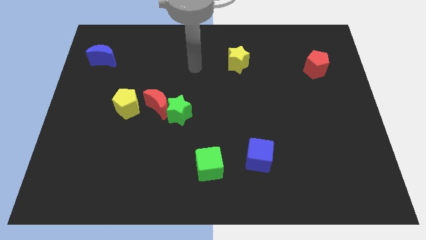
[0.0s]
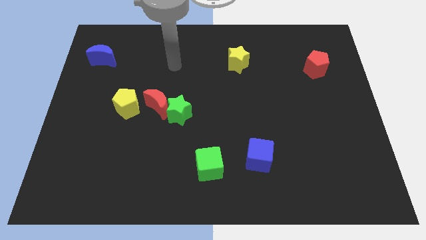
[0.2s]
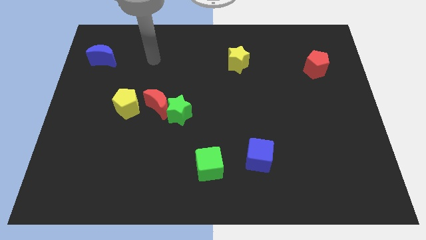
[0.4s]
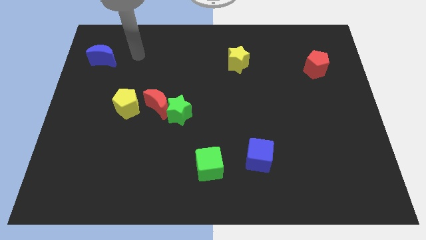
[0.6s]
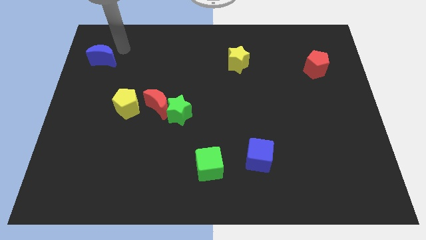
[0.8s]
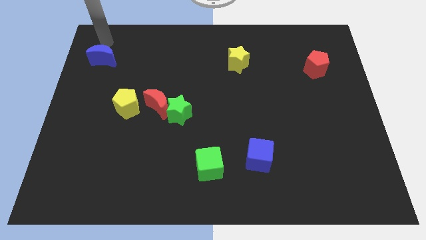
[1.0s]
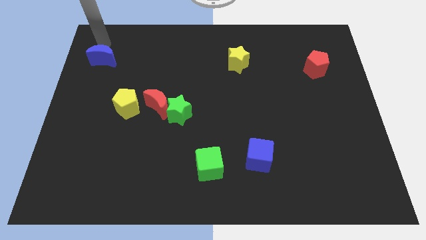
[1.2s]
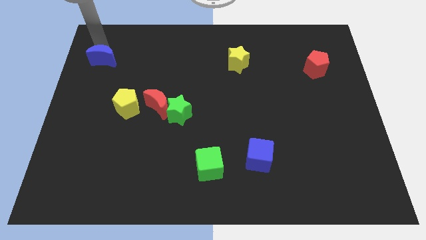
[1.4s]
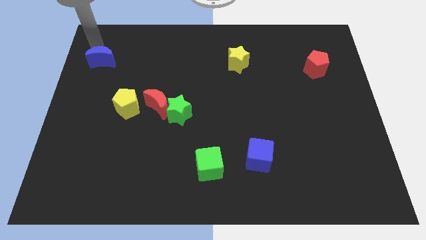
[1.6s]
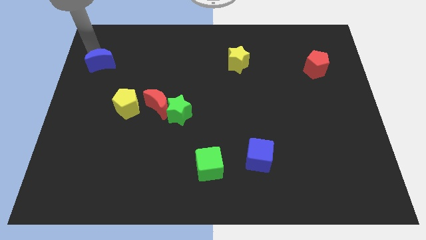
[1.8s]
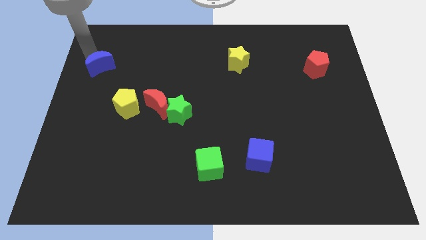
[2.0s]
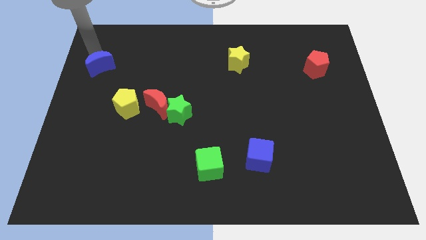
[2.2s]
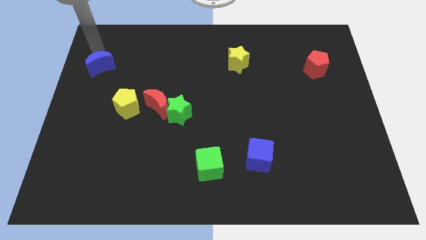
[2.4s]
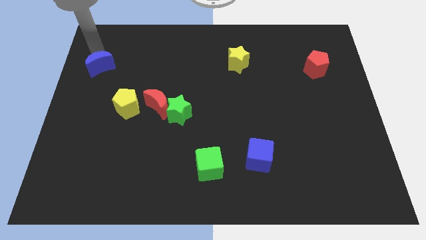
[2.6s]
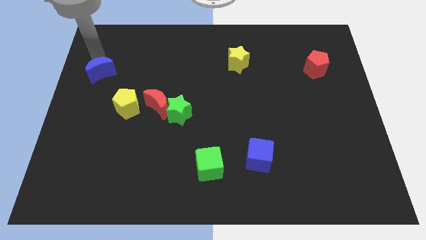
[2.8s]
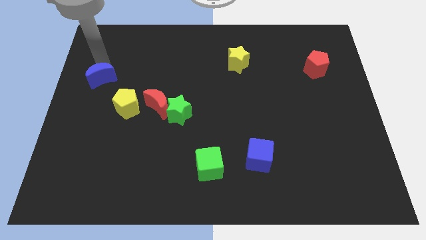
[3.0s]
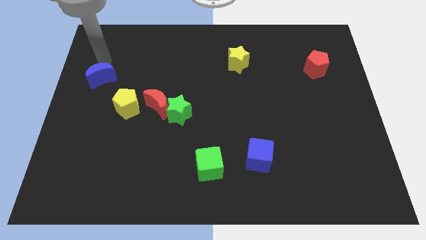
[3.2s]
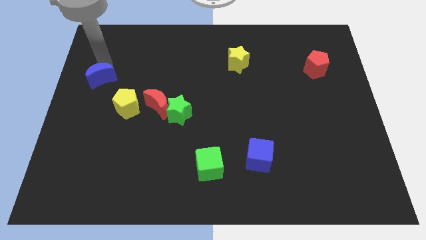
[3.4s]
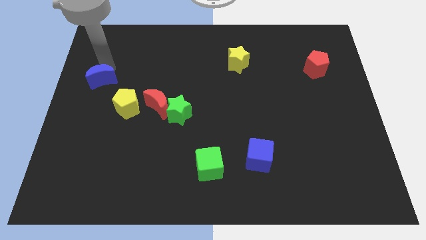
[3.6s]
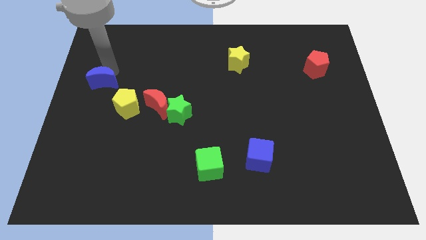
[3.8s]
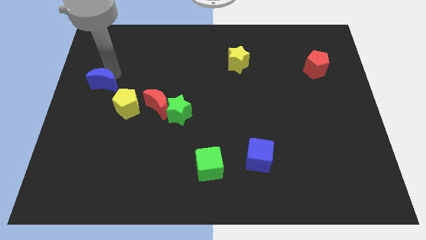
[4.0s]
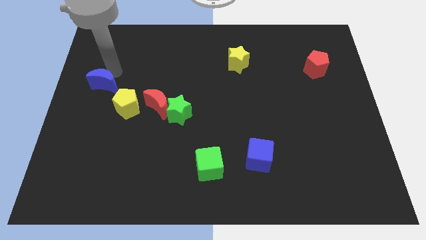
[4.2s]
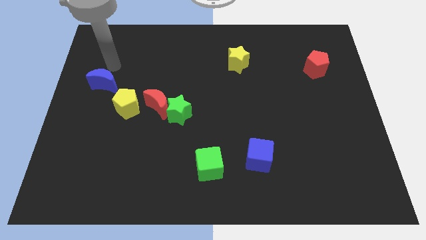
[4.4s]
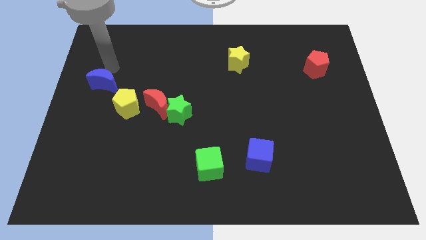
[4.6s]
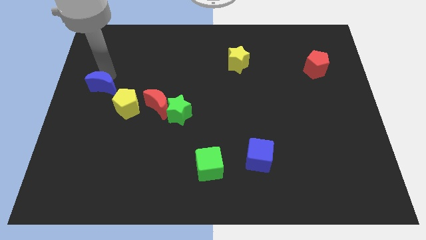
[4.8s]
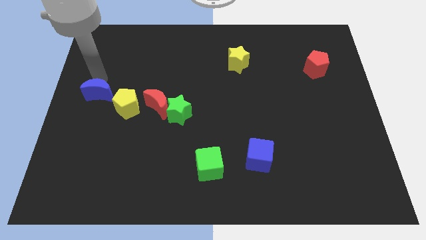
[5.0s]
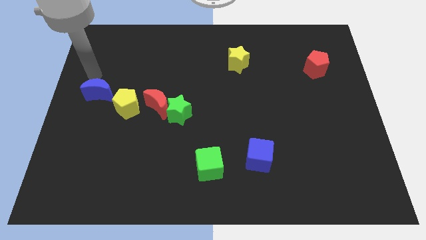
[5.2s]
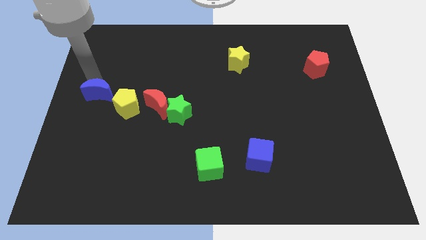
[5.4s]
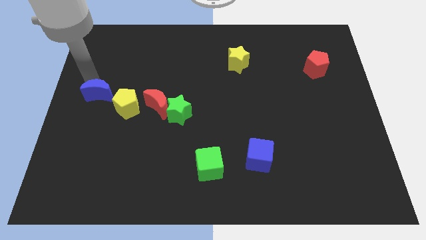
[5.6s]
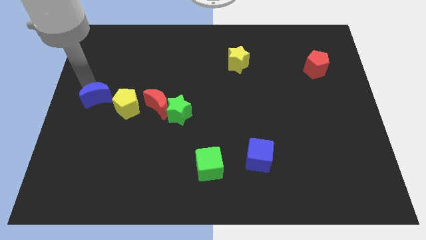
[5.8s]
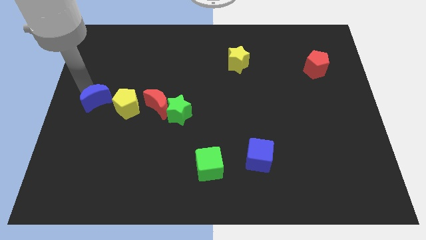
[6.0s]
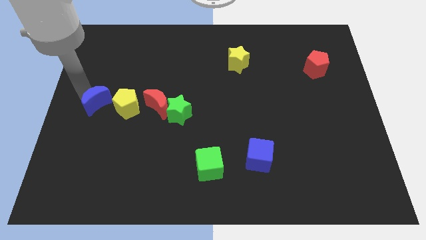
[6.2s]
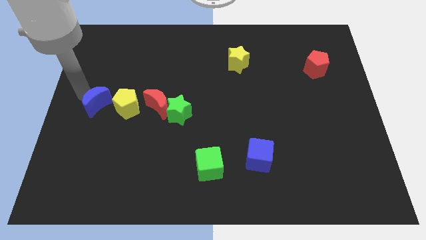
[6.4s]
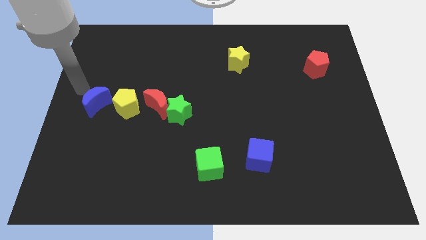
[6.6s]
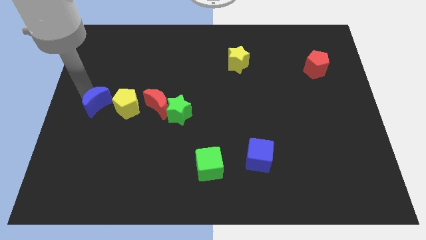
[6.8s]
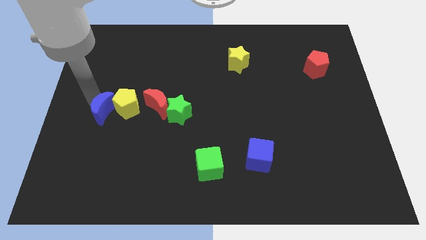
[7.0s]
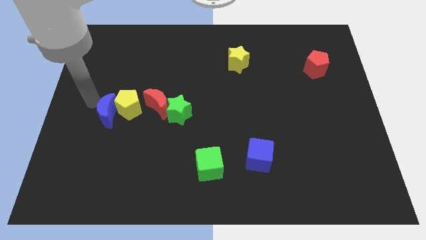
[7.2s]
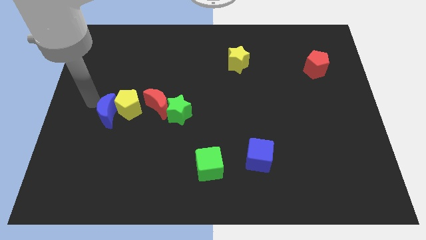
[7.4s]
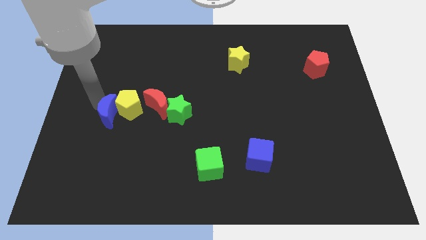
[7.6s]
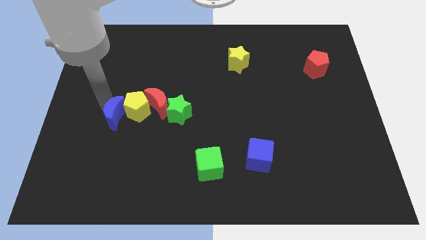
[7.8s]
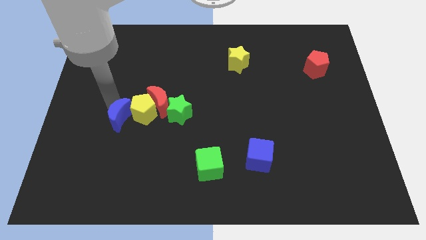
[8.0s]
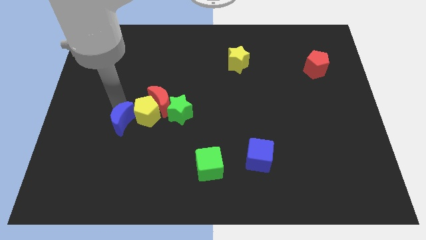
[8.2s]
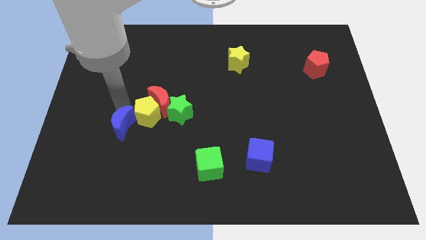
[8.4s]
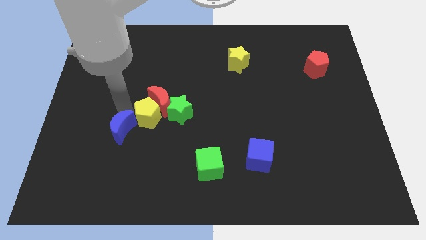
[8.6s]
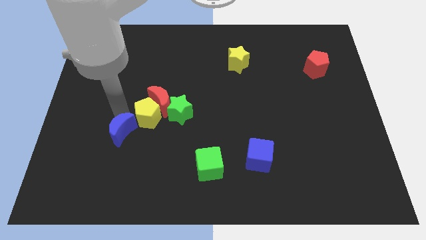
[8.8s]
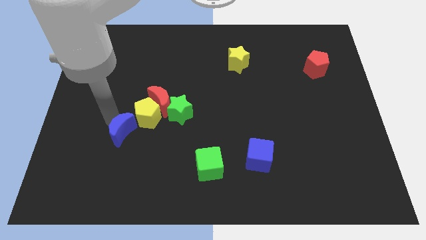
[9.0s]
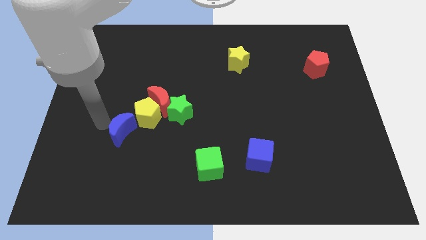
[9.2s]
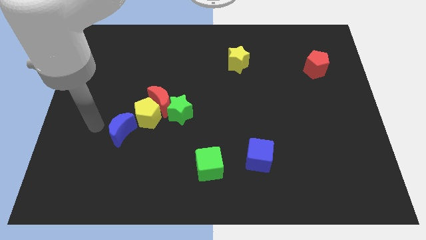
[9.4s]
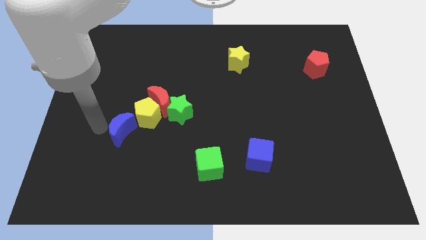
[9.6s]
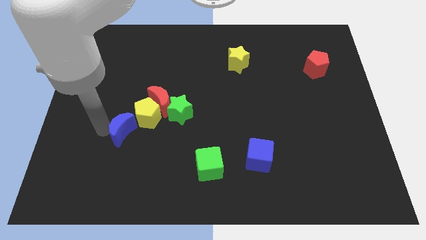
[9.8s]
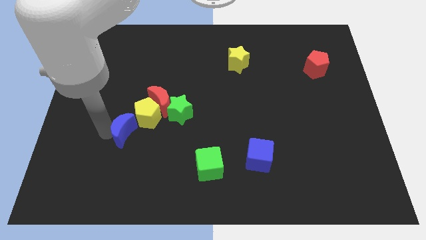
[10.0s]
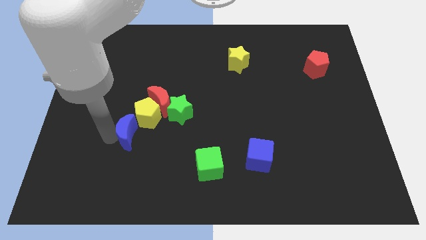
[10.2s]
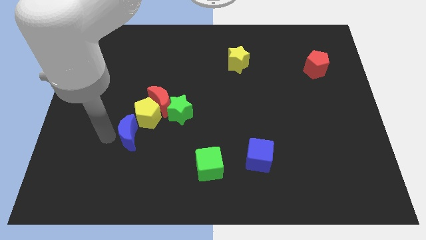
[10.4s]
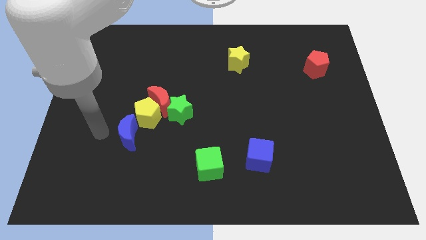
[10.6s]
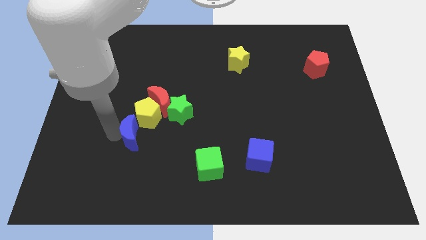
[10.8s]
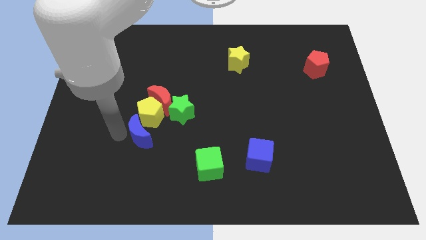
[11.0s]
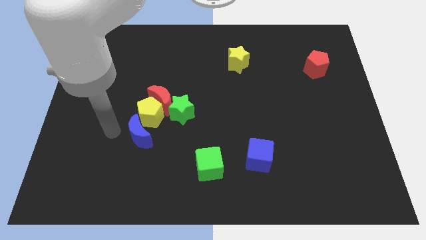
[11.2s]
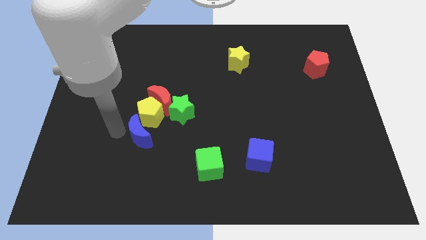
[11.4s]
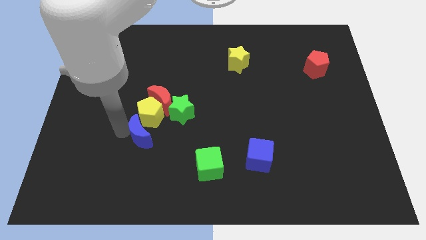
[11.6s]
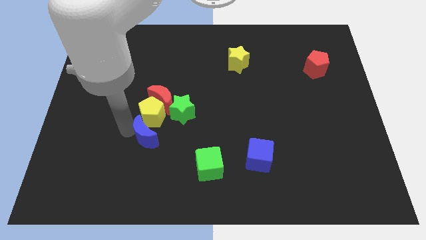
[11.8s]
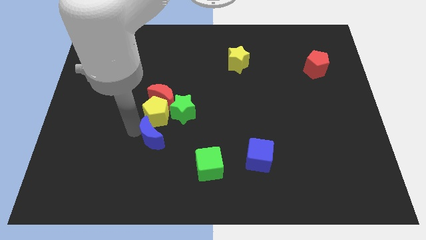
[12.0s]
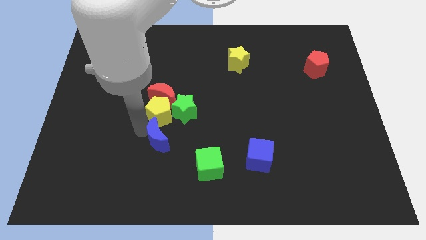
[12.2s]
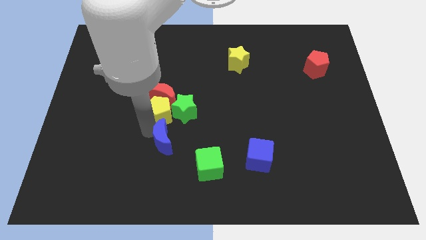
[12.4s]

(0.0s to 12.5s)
push the blue moon to the top left of the green cube

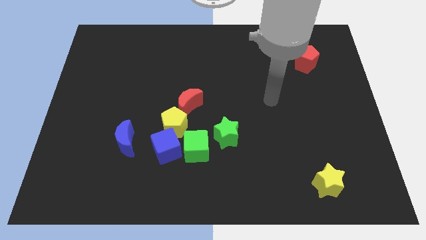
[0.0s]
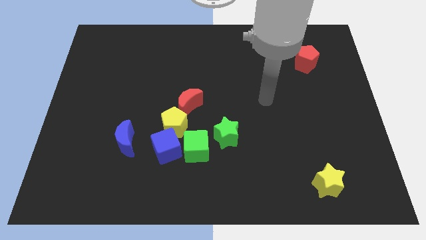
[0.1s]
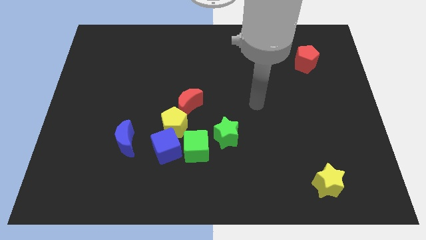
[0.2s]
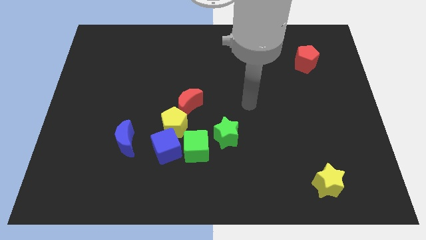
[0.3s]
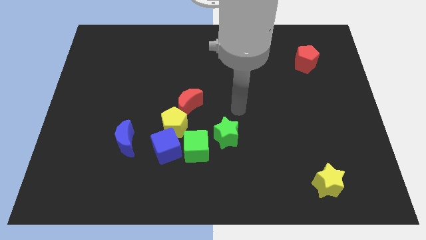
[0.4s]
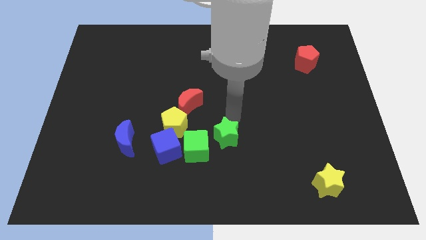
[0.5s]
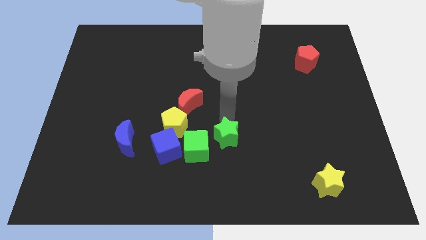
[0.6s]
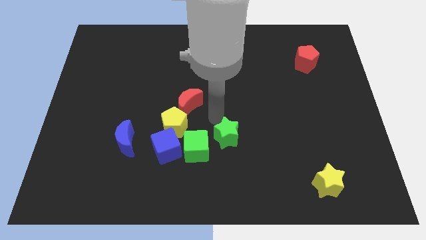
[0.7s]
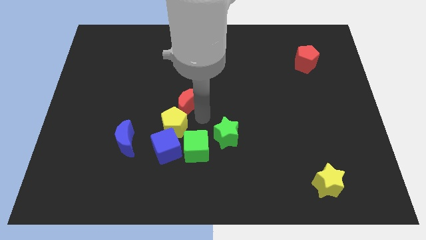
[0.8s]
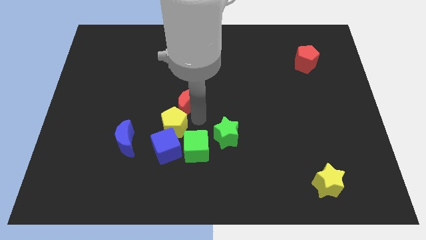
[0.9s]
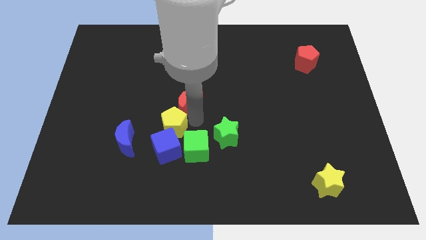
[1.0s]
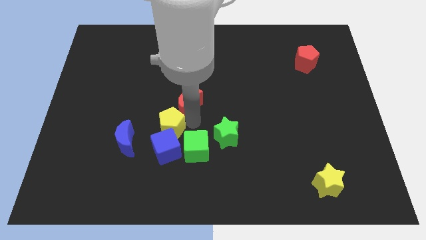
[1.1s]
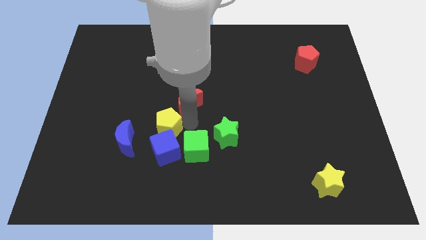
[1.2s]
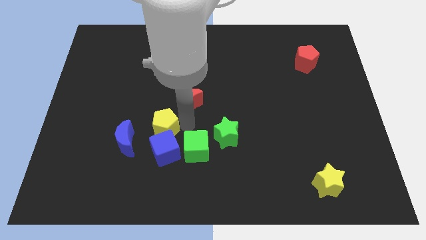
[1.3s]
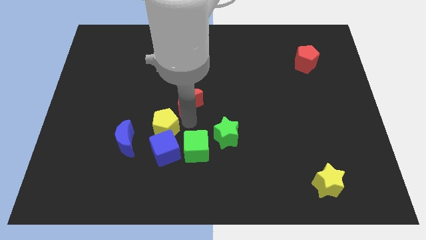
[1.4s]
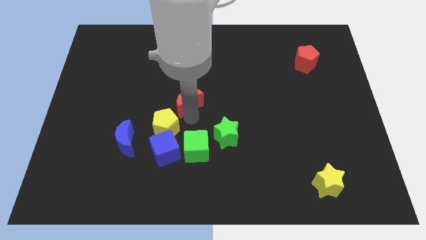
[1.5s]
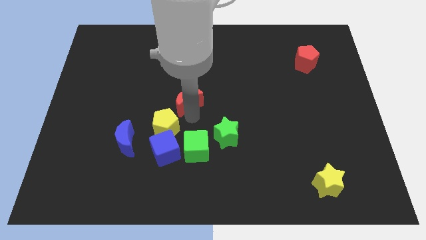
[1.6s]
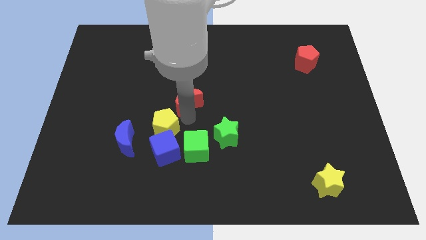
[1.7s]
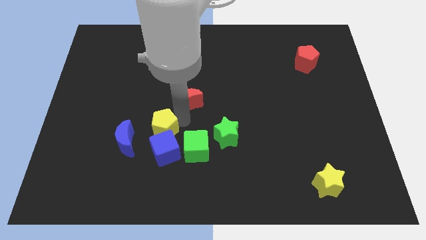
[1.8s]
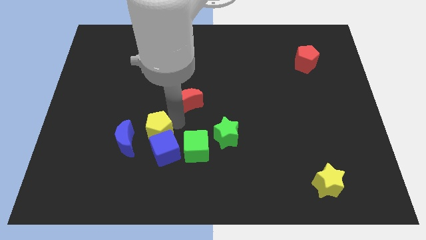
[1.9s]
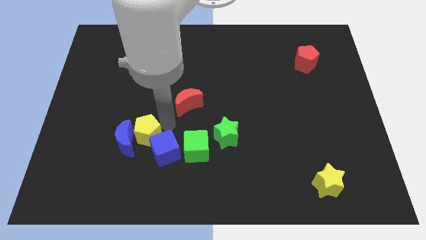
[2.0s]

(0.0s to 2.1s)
push the yellow pentagon left of the blue cube
